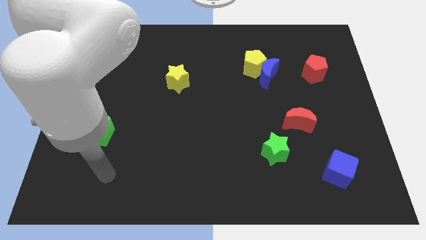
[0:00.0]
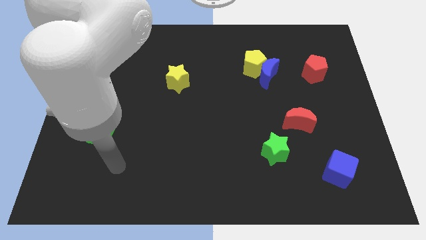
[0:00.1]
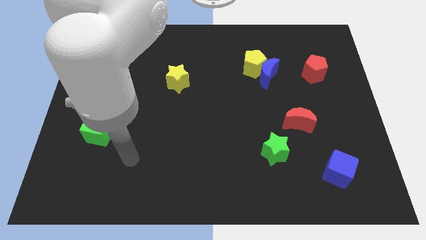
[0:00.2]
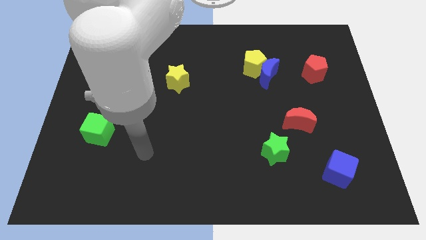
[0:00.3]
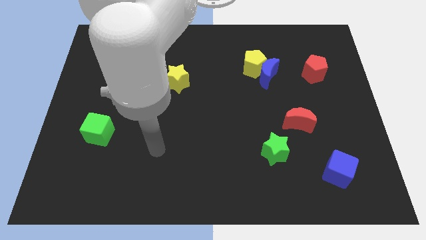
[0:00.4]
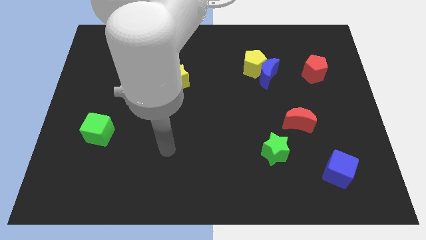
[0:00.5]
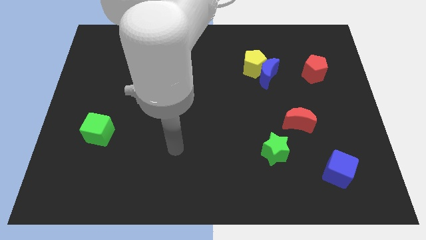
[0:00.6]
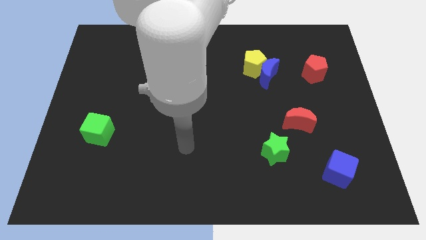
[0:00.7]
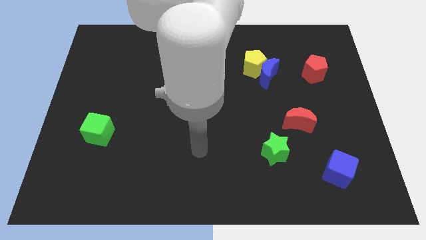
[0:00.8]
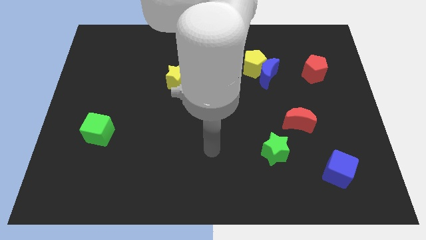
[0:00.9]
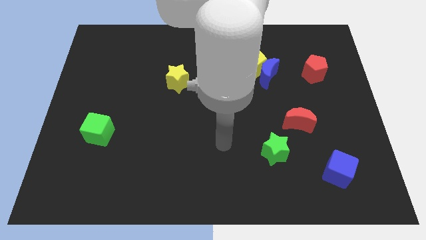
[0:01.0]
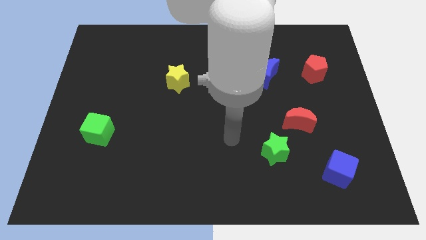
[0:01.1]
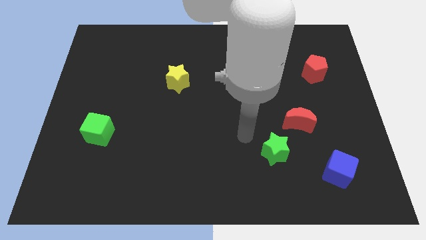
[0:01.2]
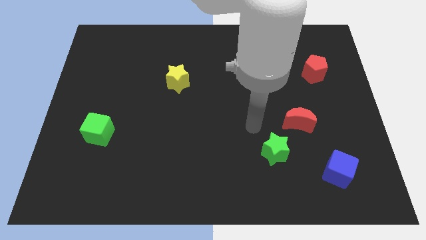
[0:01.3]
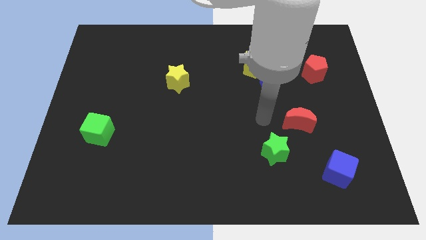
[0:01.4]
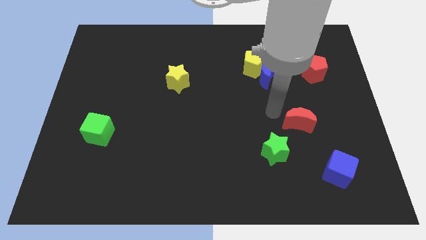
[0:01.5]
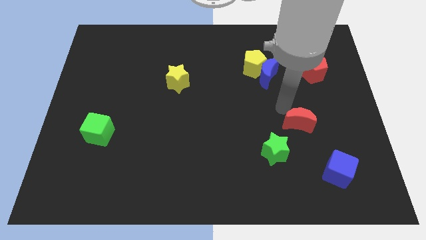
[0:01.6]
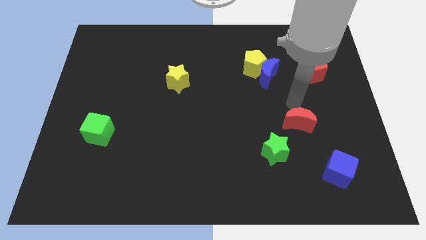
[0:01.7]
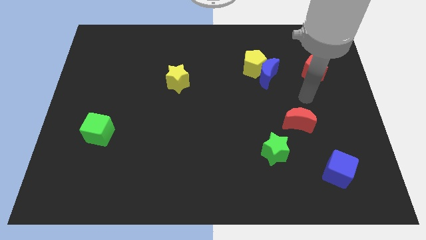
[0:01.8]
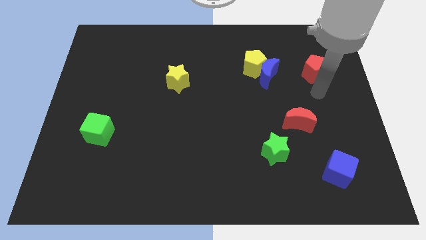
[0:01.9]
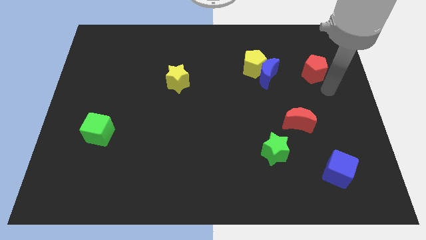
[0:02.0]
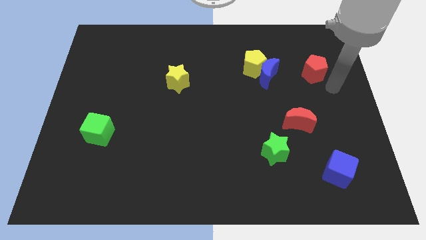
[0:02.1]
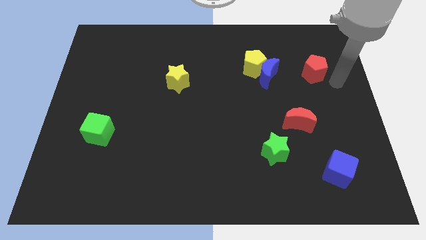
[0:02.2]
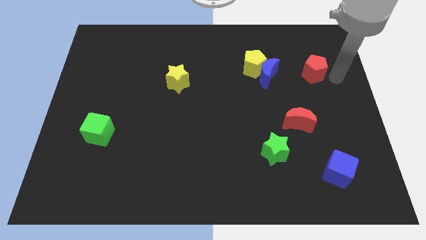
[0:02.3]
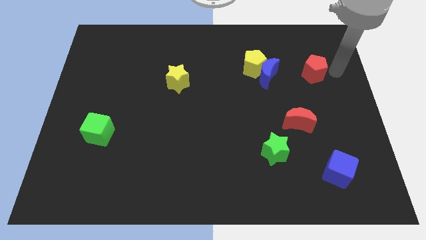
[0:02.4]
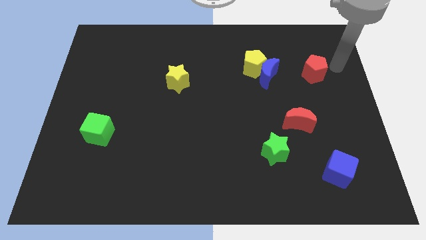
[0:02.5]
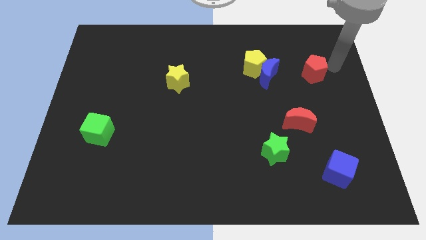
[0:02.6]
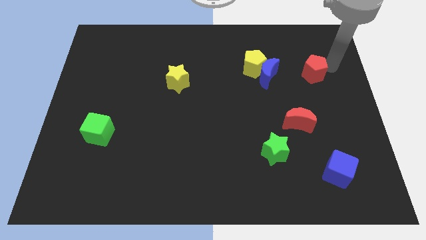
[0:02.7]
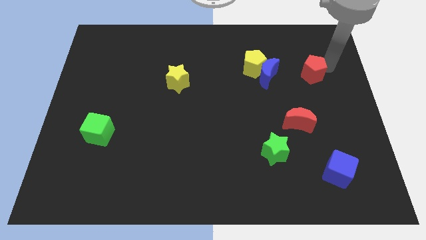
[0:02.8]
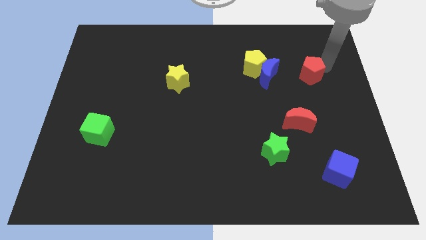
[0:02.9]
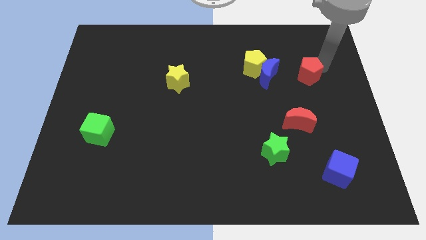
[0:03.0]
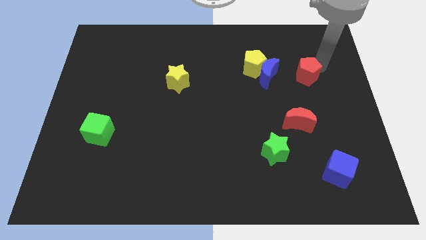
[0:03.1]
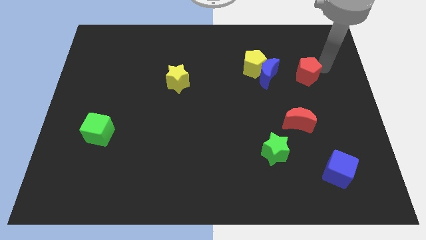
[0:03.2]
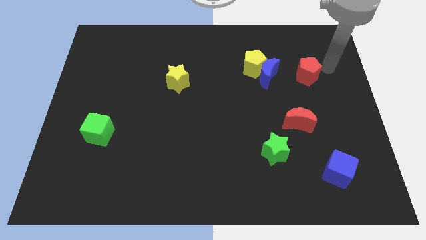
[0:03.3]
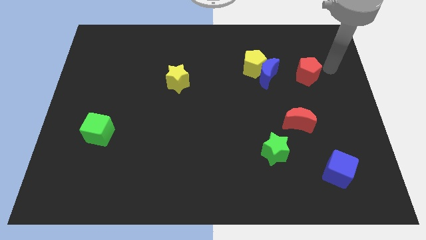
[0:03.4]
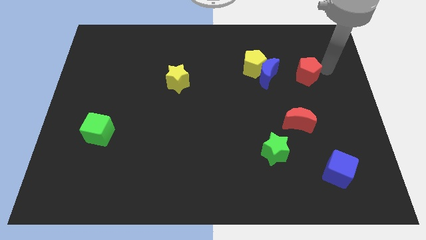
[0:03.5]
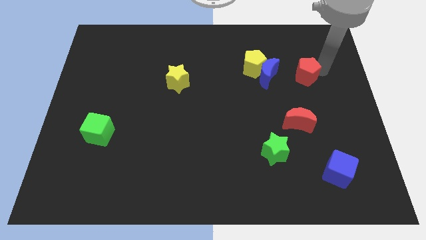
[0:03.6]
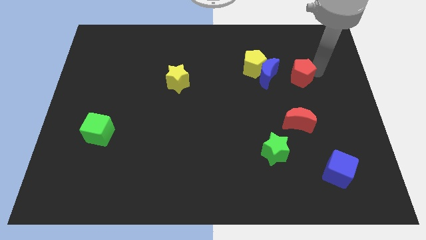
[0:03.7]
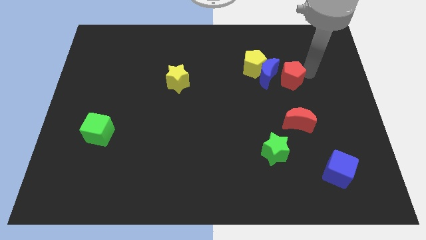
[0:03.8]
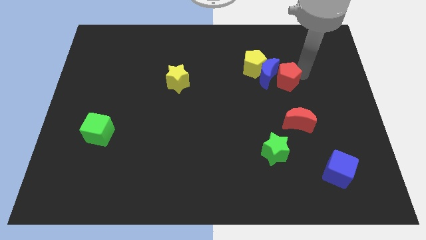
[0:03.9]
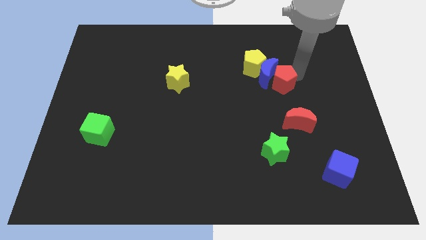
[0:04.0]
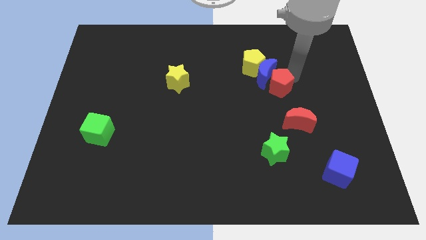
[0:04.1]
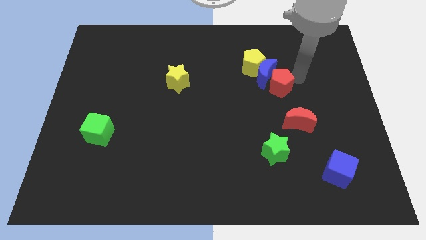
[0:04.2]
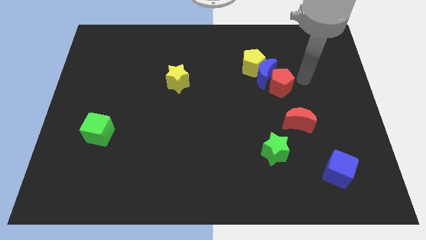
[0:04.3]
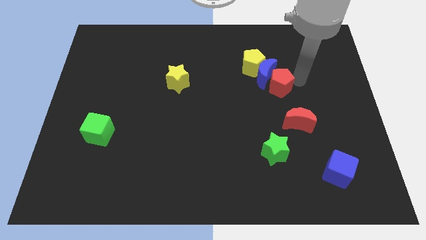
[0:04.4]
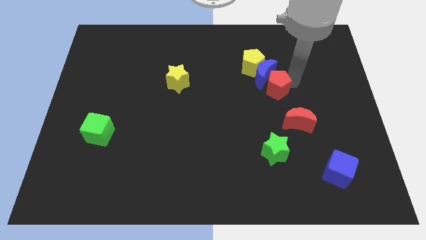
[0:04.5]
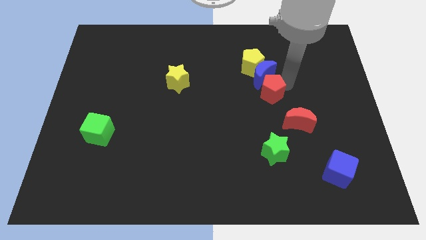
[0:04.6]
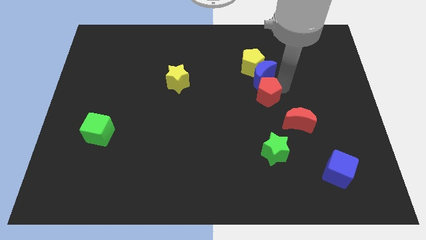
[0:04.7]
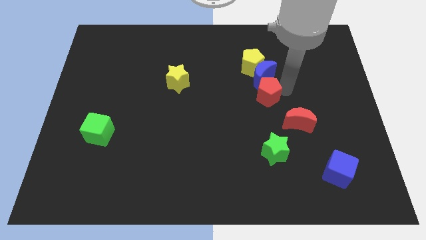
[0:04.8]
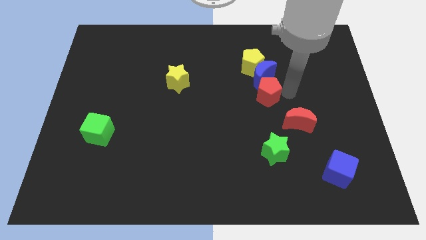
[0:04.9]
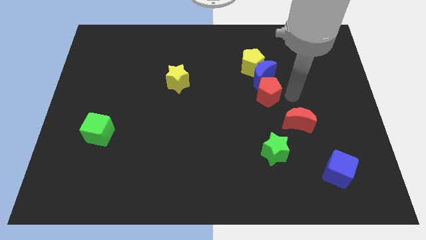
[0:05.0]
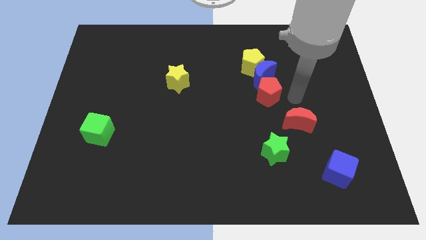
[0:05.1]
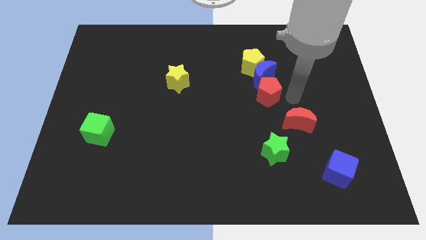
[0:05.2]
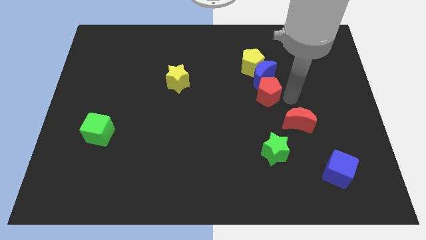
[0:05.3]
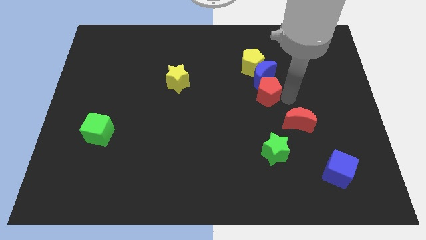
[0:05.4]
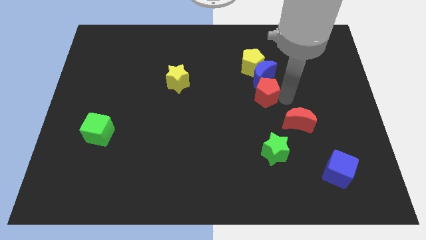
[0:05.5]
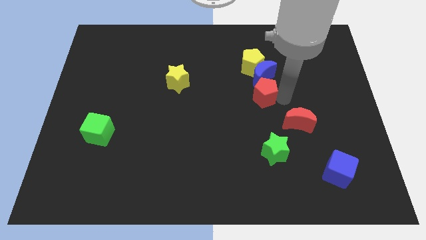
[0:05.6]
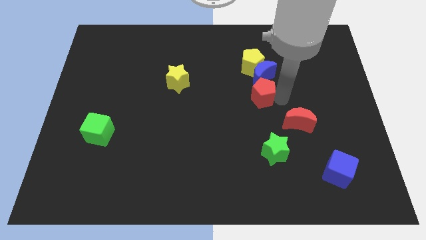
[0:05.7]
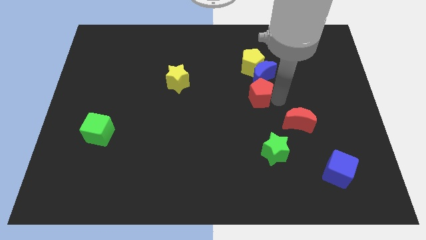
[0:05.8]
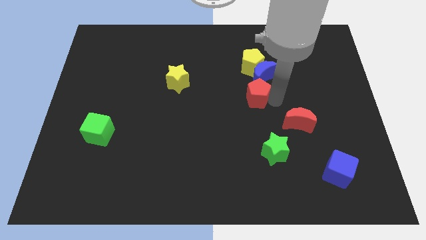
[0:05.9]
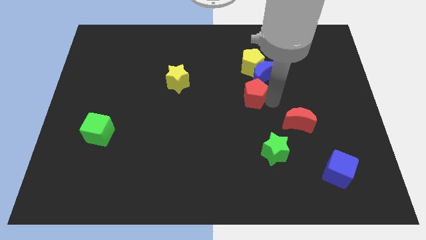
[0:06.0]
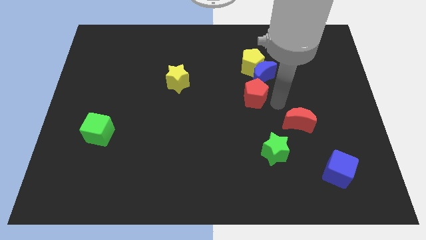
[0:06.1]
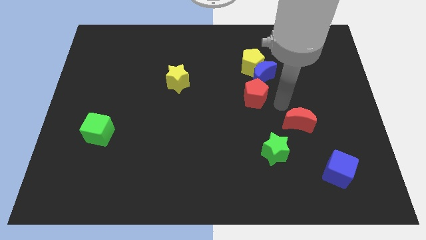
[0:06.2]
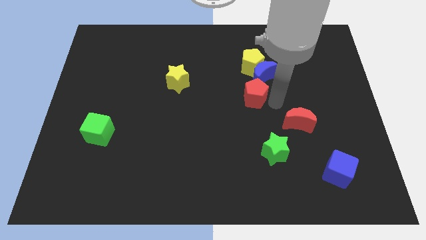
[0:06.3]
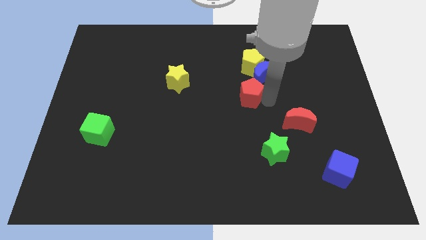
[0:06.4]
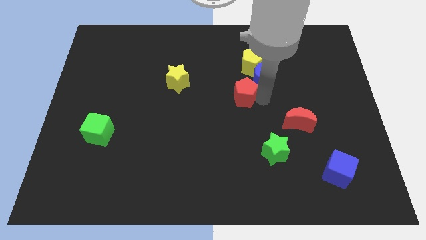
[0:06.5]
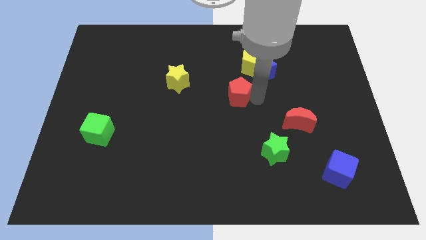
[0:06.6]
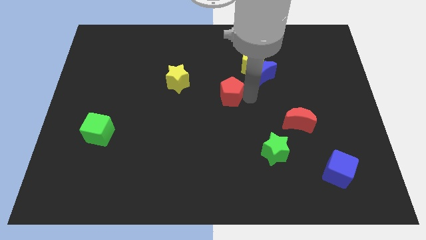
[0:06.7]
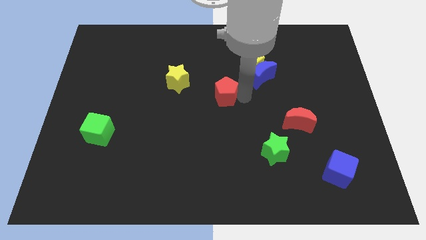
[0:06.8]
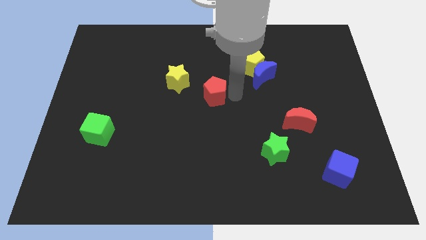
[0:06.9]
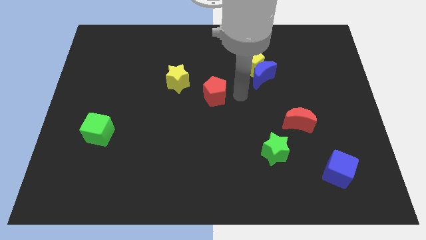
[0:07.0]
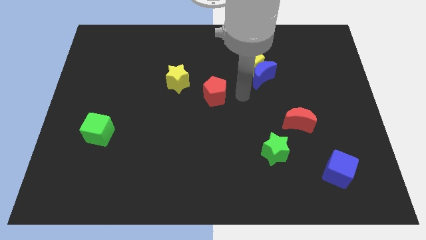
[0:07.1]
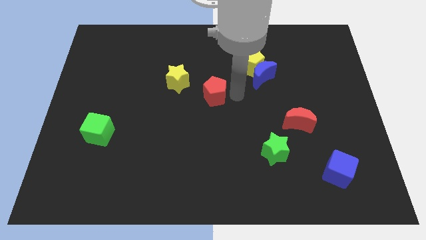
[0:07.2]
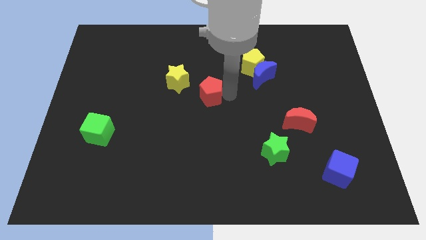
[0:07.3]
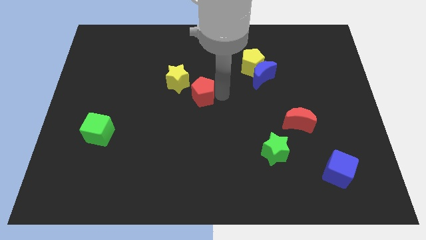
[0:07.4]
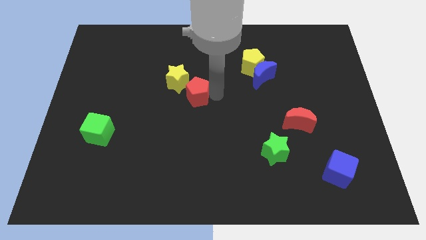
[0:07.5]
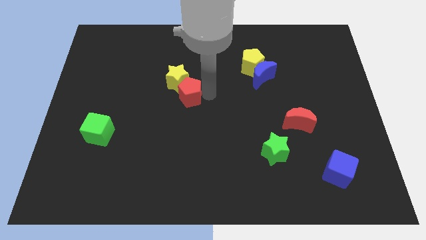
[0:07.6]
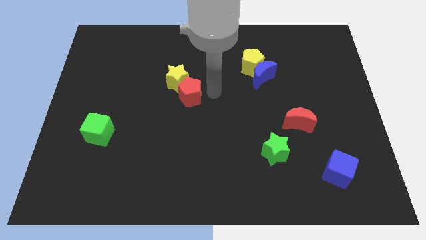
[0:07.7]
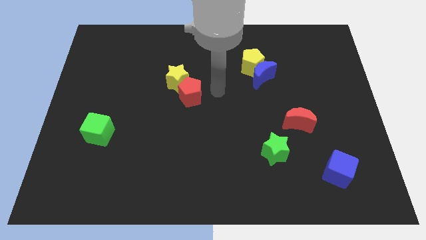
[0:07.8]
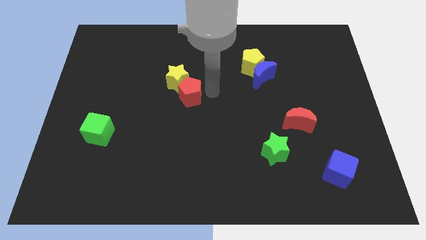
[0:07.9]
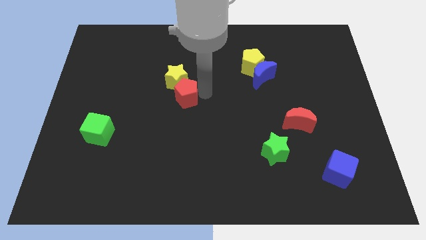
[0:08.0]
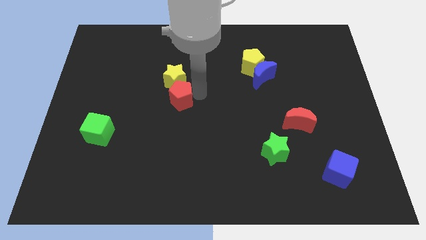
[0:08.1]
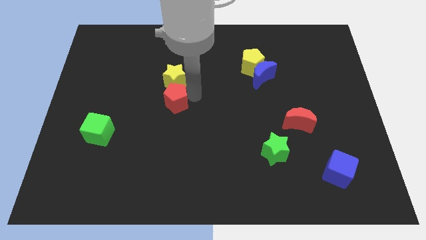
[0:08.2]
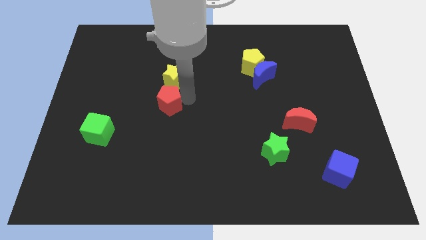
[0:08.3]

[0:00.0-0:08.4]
move the red pentagon to the bottom left of the yellow star
